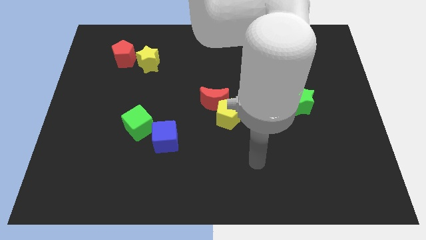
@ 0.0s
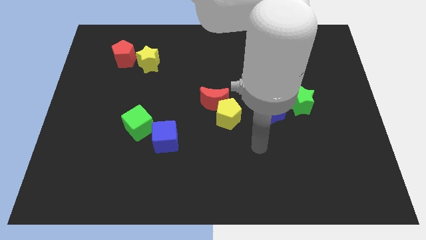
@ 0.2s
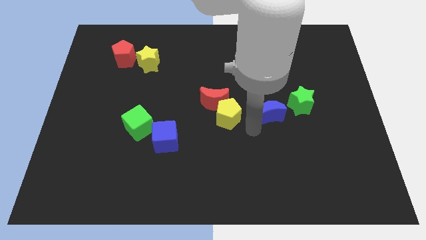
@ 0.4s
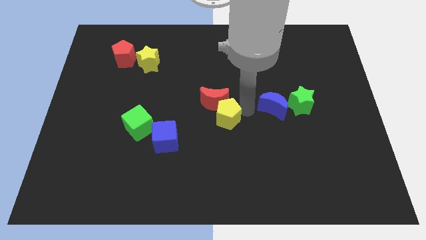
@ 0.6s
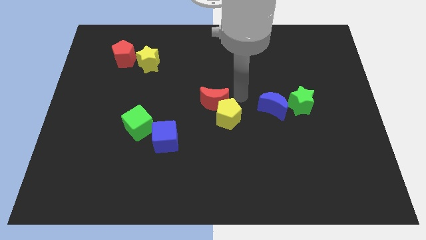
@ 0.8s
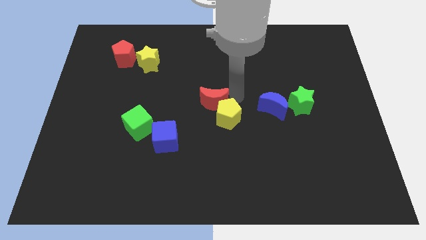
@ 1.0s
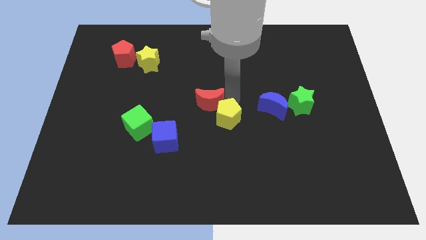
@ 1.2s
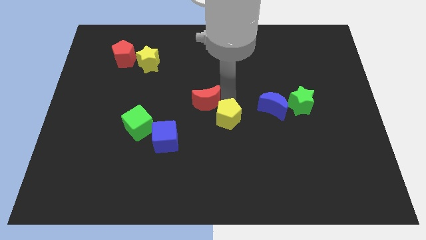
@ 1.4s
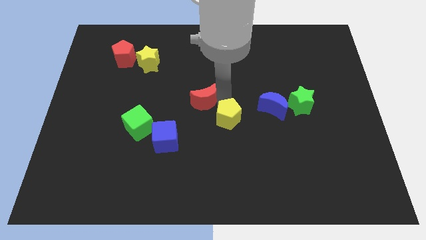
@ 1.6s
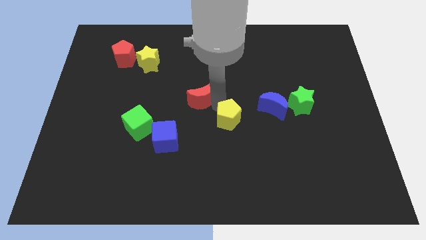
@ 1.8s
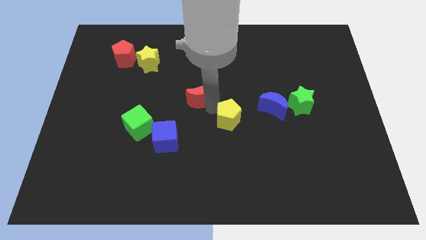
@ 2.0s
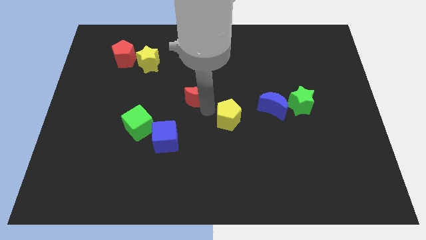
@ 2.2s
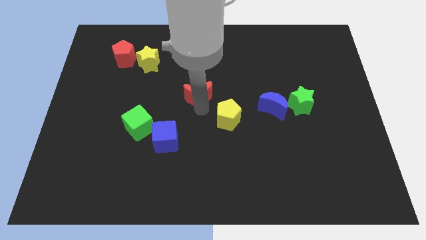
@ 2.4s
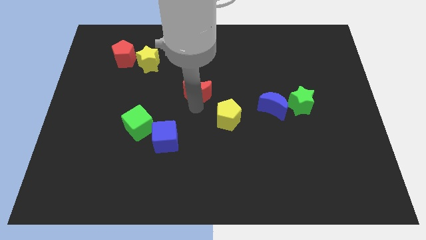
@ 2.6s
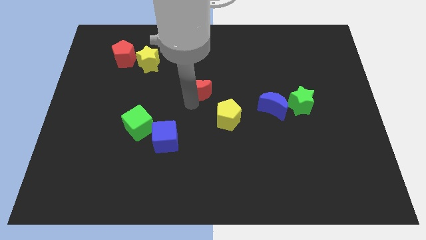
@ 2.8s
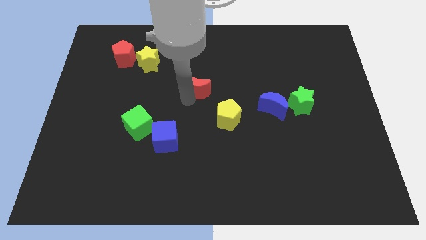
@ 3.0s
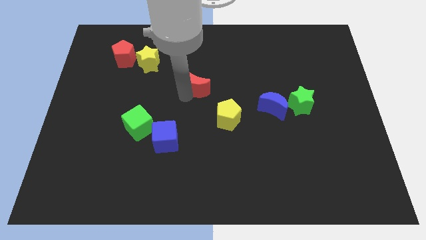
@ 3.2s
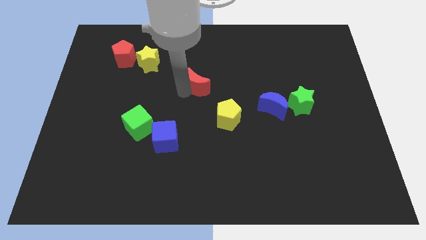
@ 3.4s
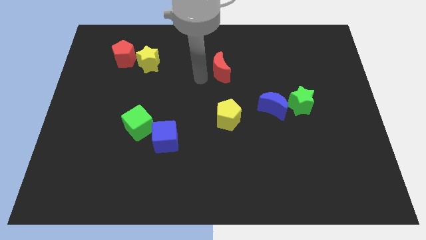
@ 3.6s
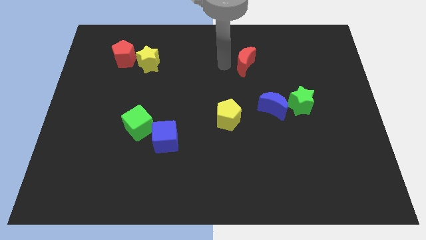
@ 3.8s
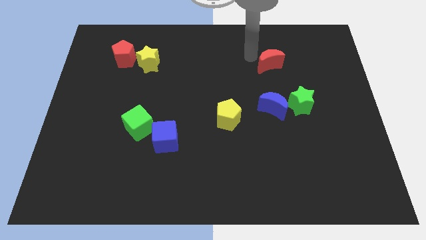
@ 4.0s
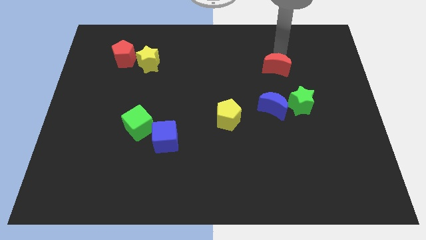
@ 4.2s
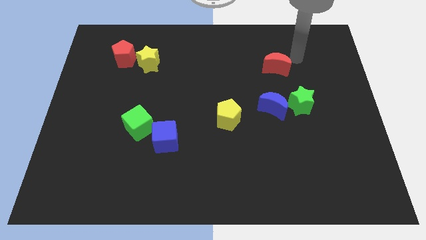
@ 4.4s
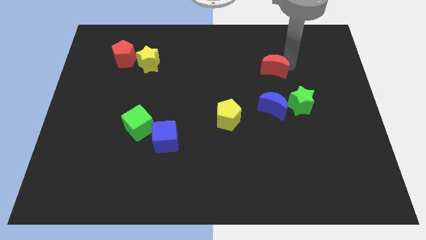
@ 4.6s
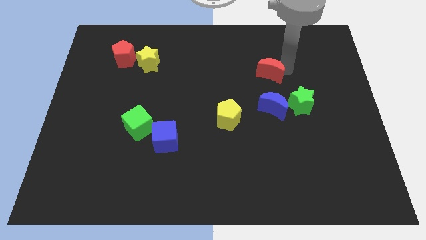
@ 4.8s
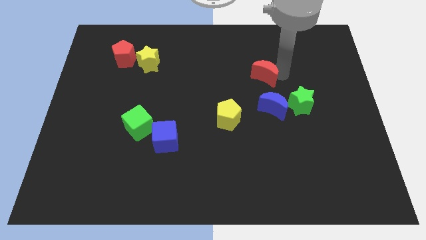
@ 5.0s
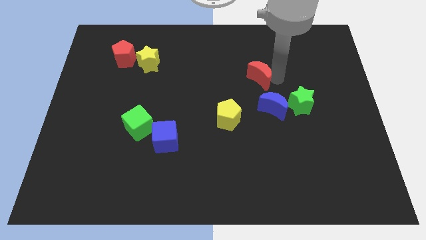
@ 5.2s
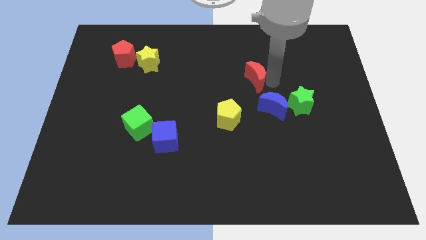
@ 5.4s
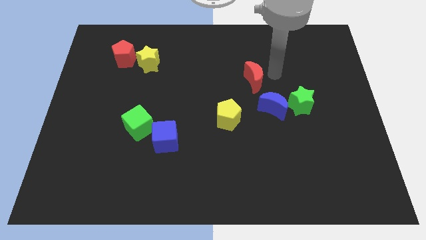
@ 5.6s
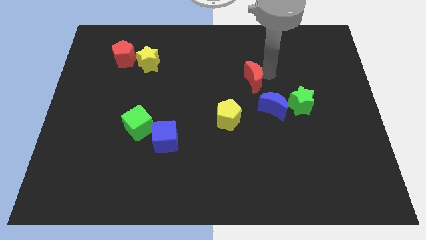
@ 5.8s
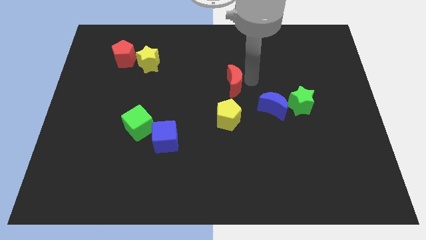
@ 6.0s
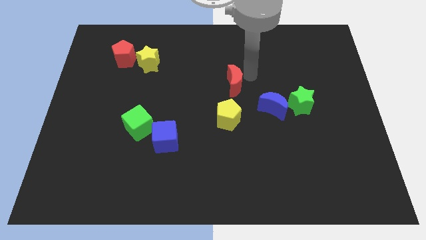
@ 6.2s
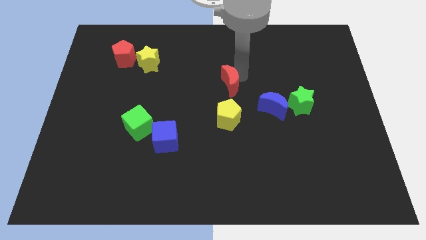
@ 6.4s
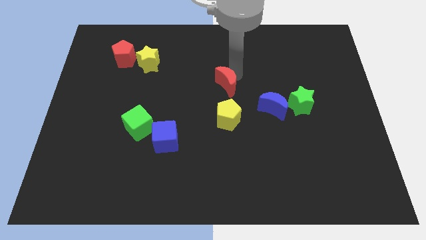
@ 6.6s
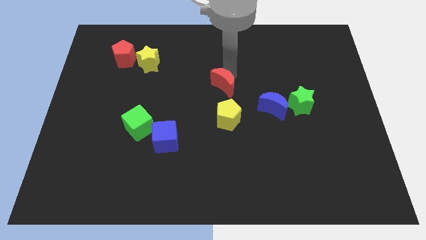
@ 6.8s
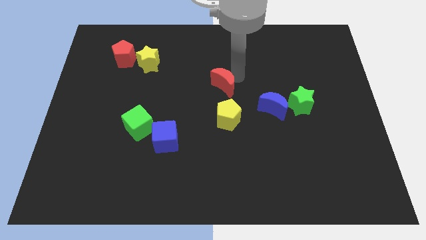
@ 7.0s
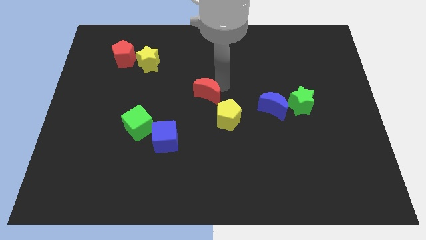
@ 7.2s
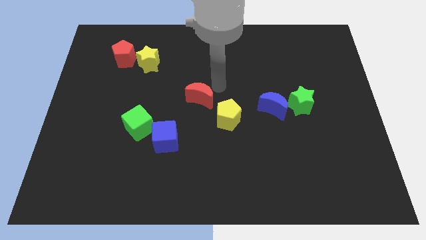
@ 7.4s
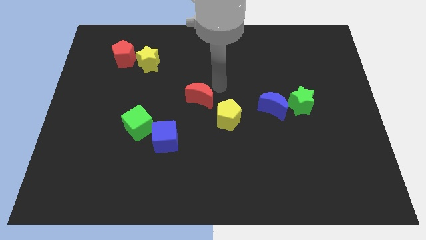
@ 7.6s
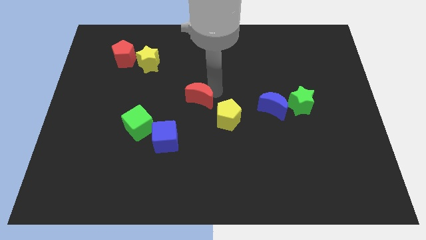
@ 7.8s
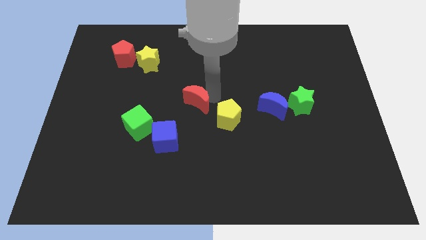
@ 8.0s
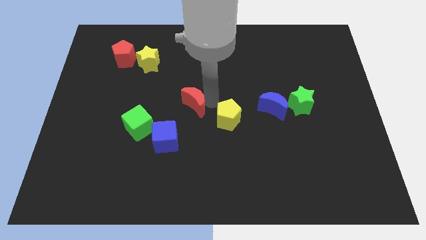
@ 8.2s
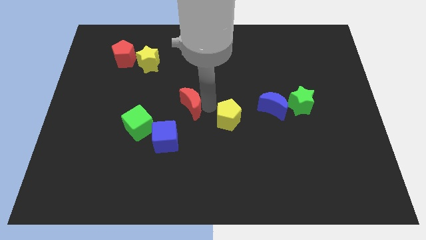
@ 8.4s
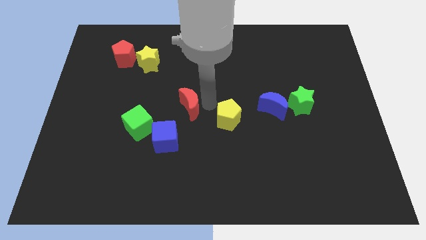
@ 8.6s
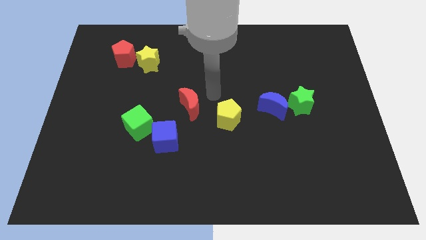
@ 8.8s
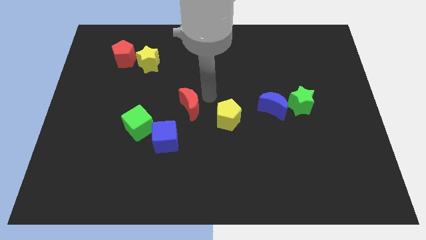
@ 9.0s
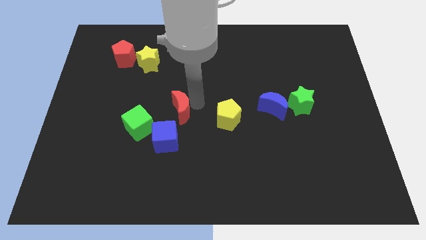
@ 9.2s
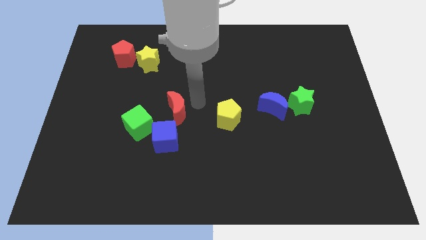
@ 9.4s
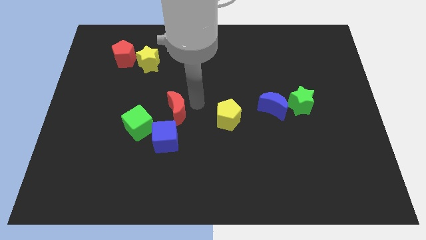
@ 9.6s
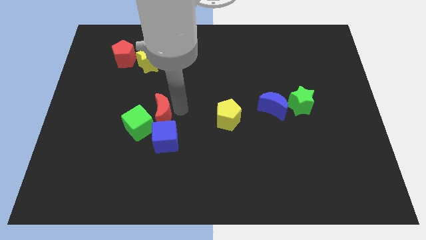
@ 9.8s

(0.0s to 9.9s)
slide the red moon towards the green cube

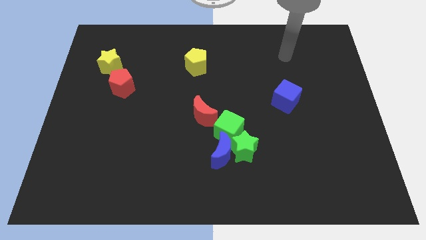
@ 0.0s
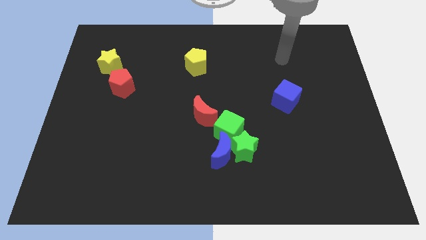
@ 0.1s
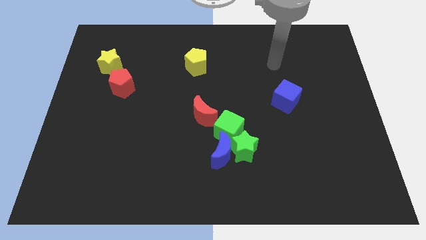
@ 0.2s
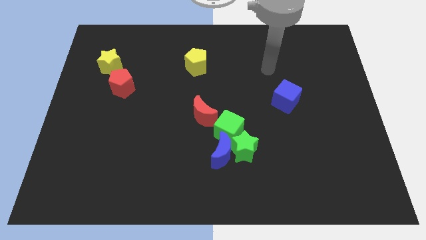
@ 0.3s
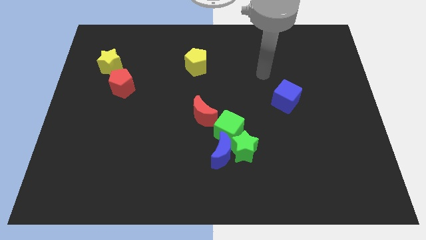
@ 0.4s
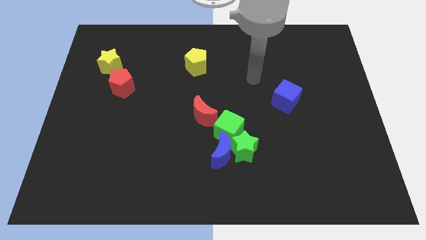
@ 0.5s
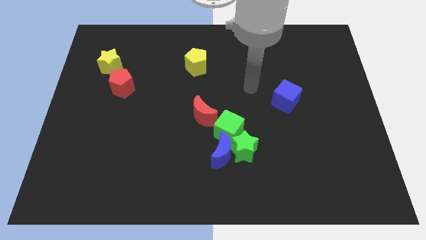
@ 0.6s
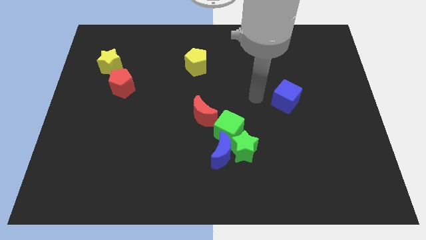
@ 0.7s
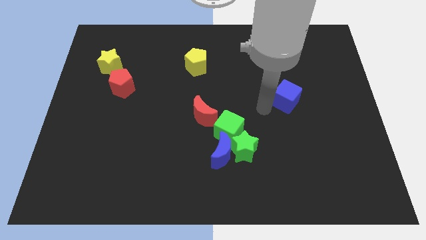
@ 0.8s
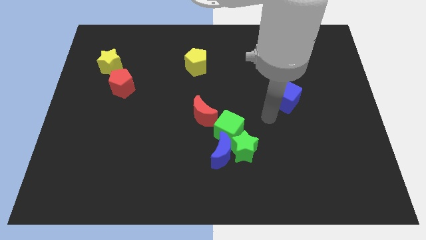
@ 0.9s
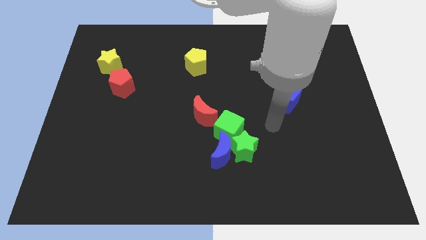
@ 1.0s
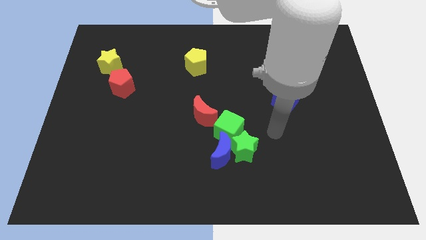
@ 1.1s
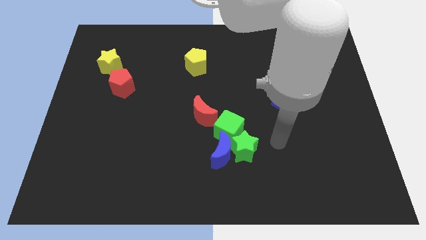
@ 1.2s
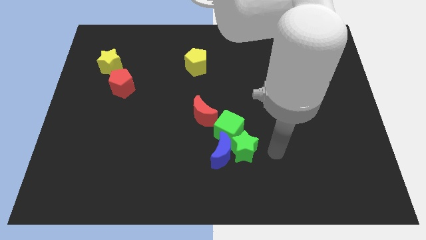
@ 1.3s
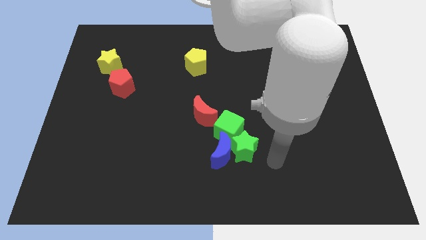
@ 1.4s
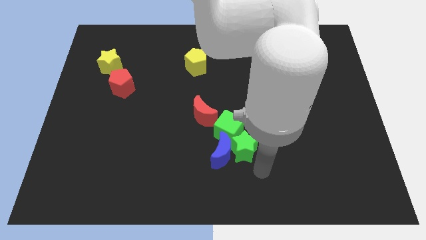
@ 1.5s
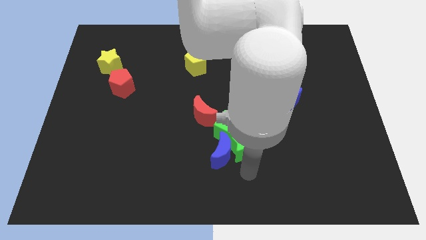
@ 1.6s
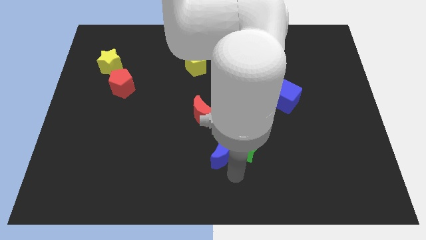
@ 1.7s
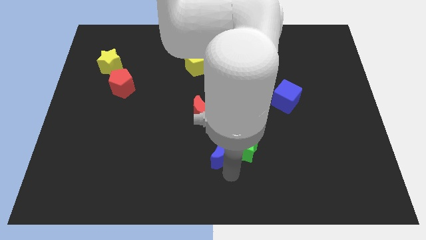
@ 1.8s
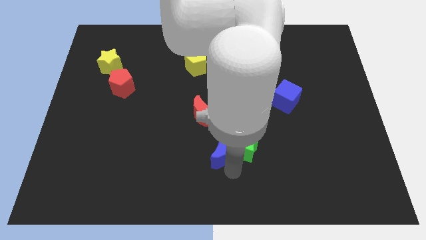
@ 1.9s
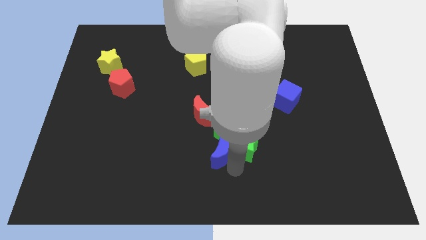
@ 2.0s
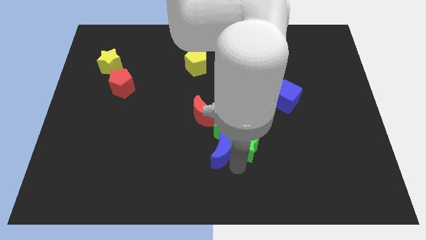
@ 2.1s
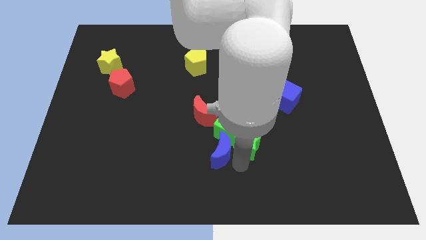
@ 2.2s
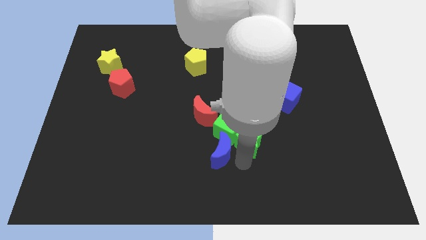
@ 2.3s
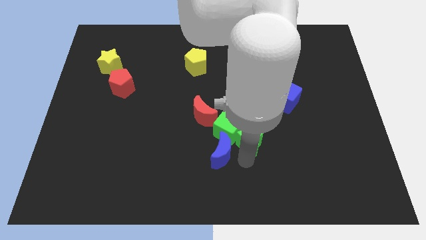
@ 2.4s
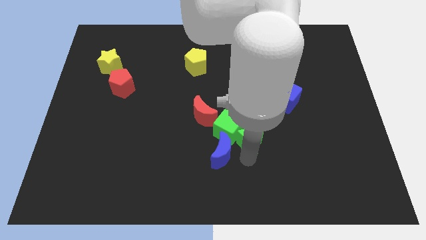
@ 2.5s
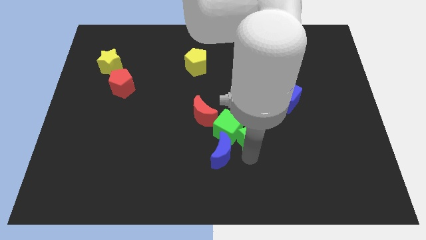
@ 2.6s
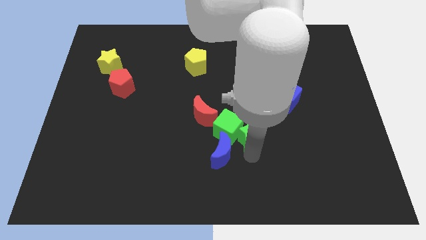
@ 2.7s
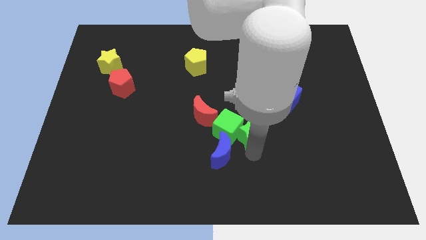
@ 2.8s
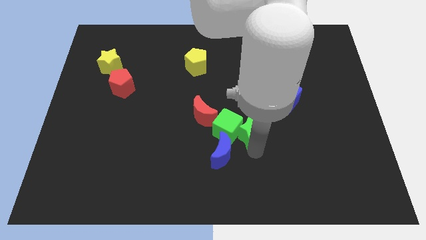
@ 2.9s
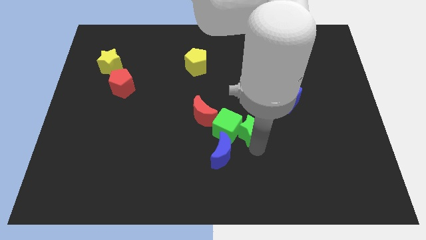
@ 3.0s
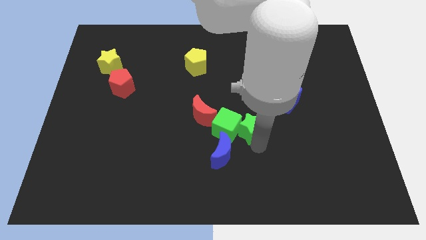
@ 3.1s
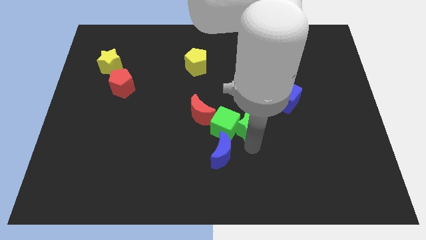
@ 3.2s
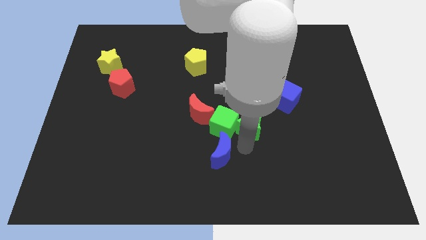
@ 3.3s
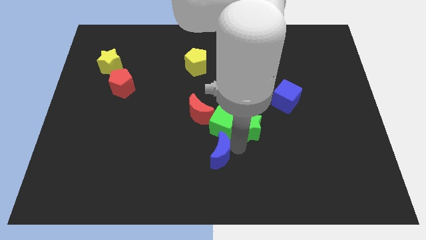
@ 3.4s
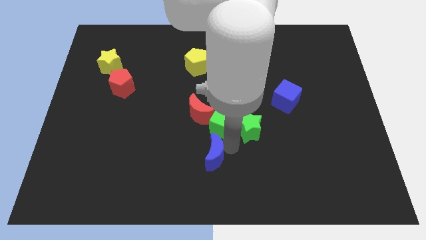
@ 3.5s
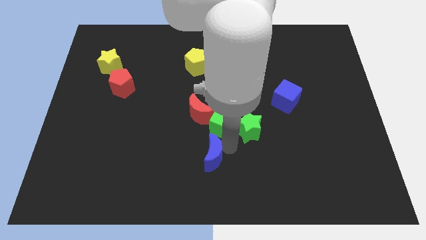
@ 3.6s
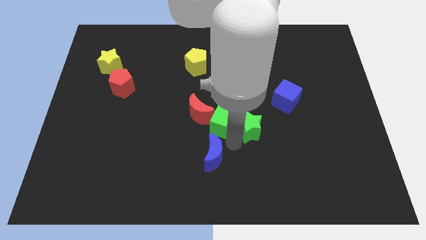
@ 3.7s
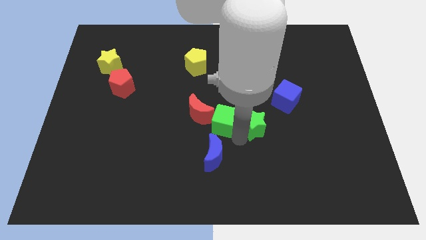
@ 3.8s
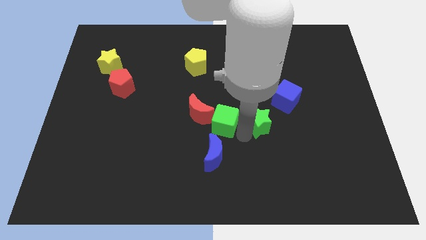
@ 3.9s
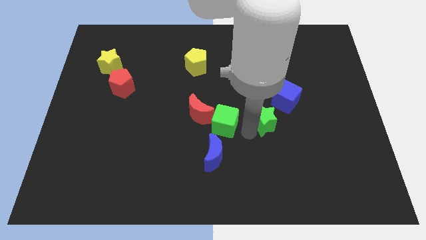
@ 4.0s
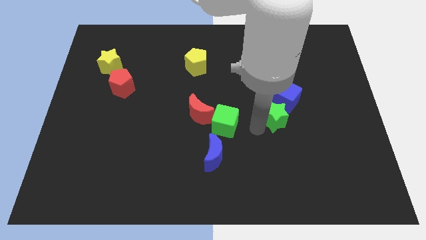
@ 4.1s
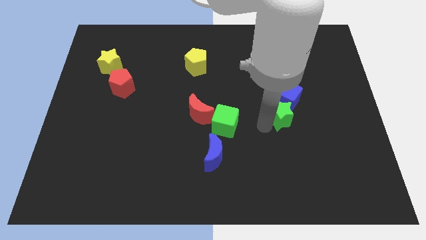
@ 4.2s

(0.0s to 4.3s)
put the green star next to the blue cube
